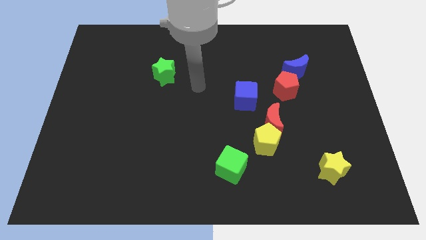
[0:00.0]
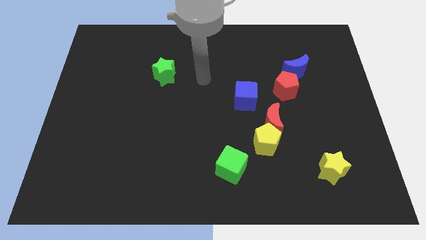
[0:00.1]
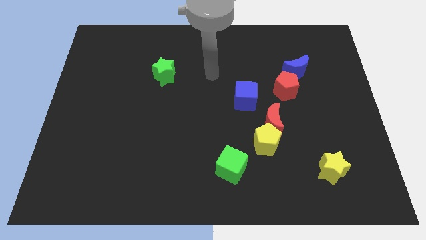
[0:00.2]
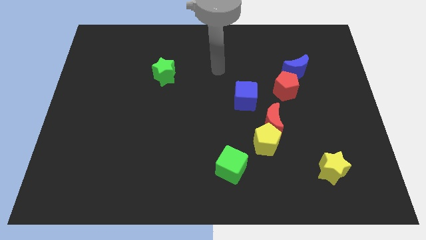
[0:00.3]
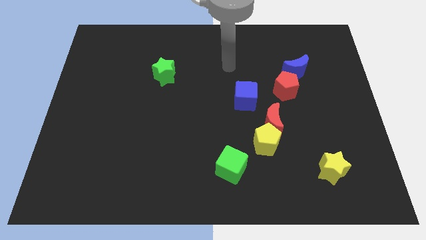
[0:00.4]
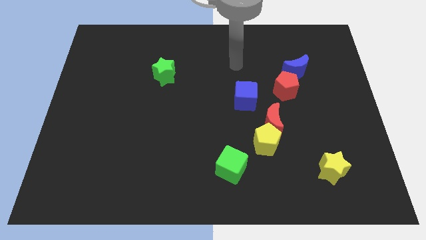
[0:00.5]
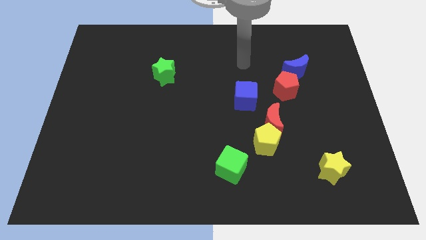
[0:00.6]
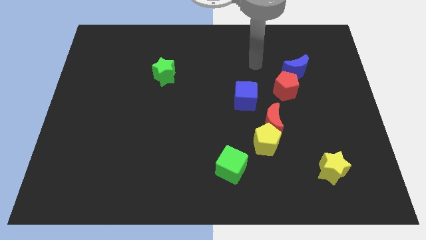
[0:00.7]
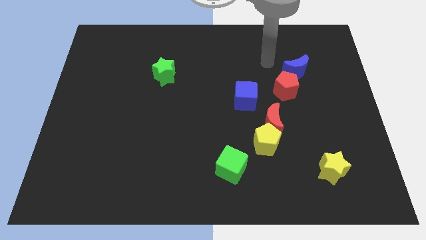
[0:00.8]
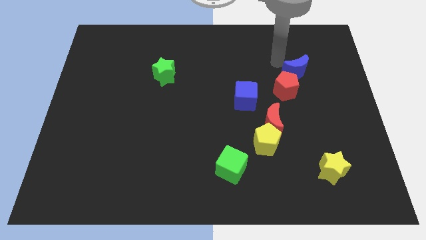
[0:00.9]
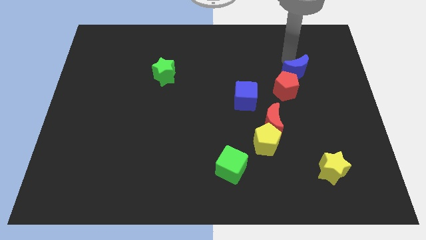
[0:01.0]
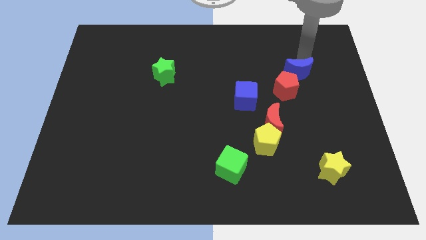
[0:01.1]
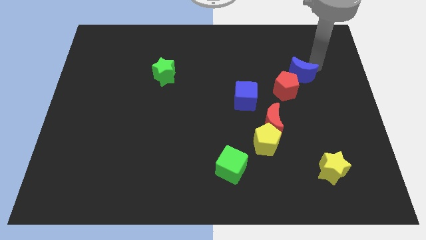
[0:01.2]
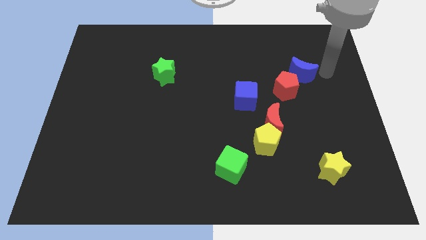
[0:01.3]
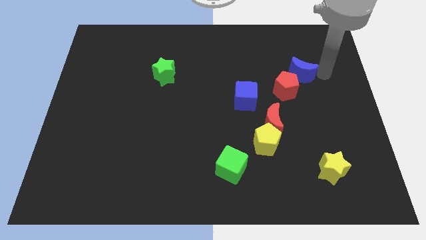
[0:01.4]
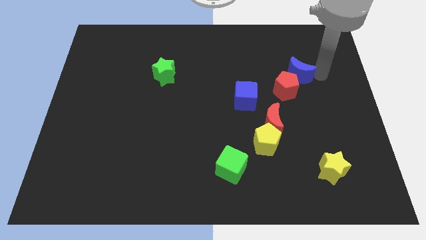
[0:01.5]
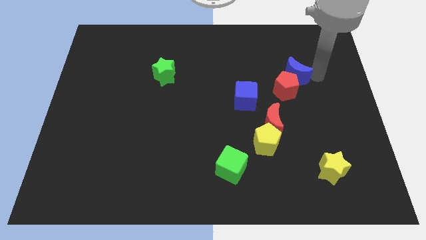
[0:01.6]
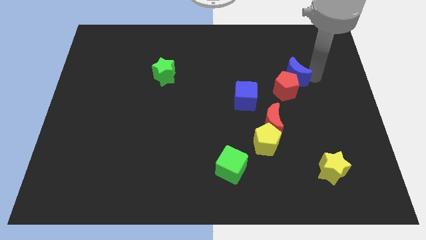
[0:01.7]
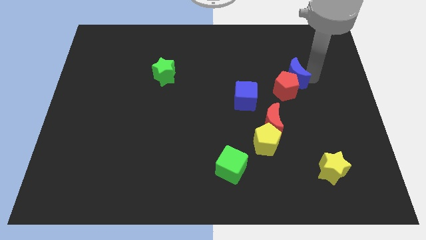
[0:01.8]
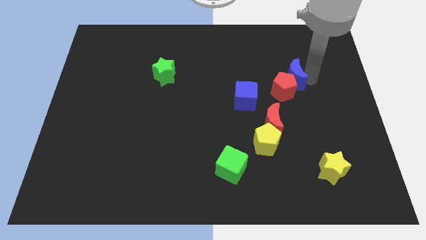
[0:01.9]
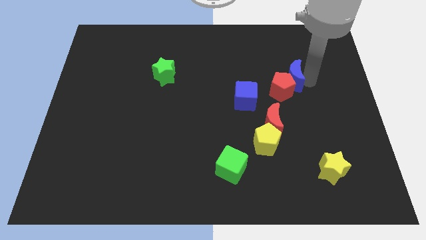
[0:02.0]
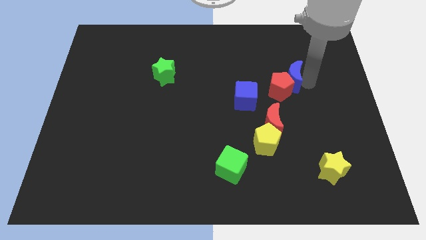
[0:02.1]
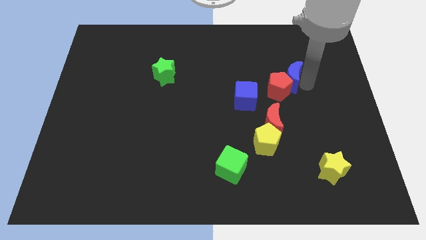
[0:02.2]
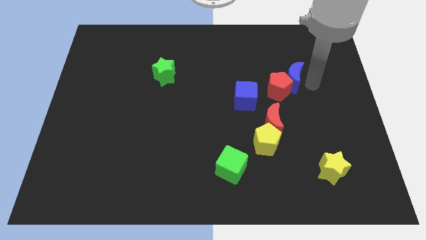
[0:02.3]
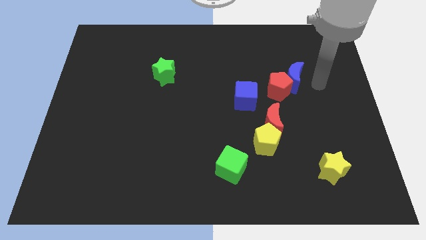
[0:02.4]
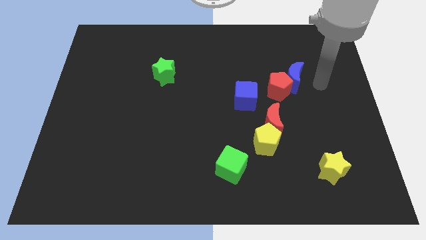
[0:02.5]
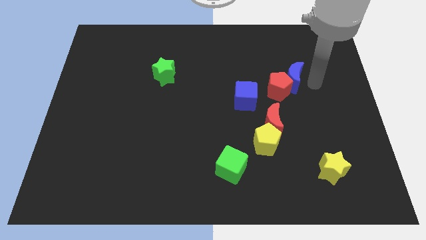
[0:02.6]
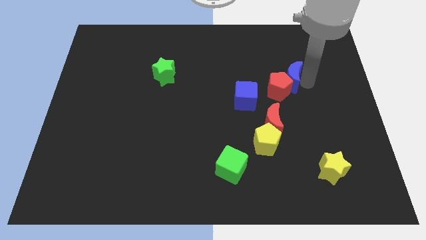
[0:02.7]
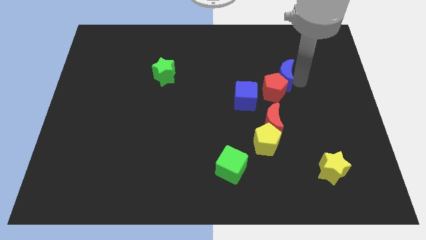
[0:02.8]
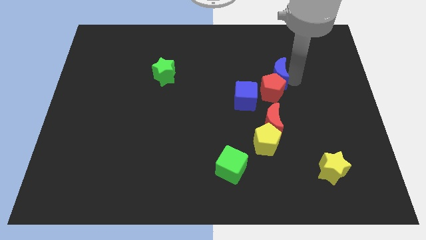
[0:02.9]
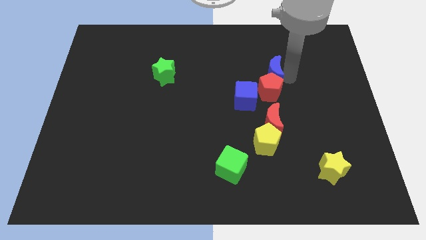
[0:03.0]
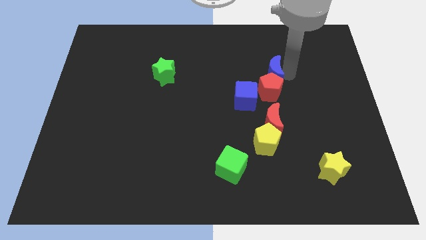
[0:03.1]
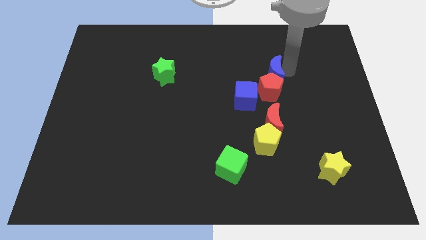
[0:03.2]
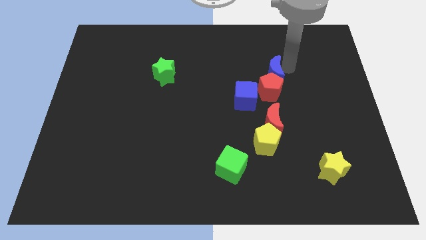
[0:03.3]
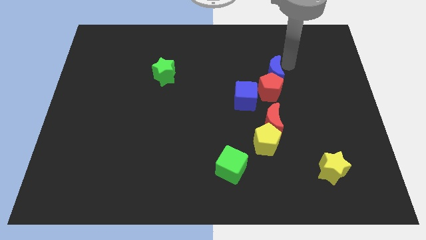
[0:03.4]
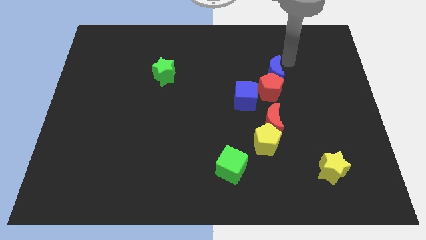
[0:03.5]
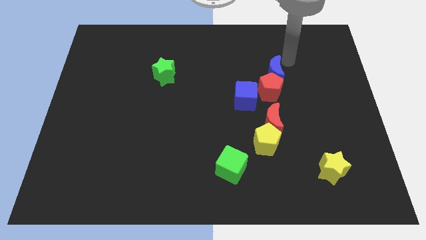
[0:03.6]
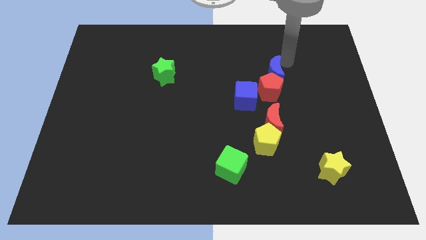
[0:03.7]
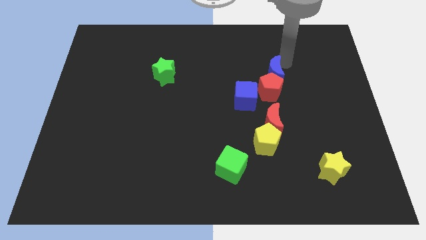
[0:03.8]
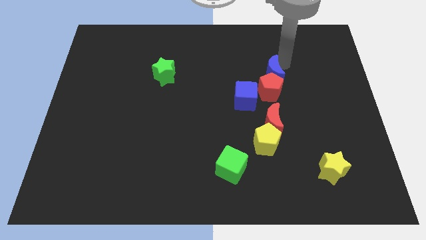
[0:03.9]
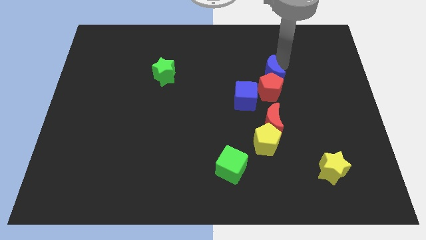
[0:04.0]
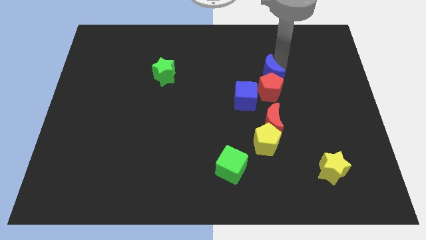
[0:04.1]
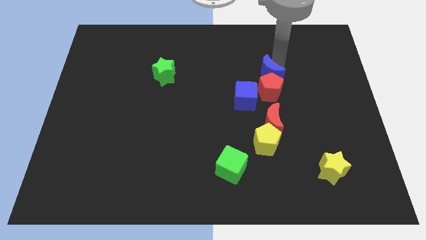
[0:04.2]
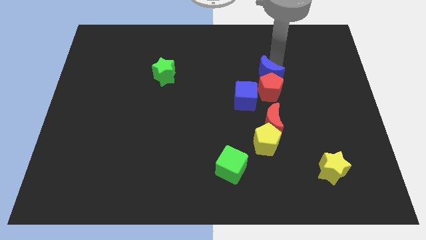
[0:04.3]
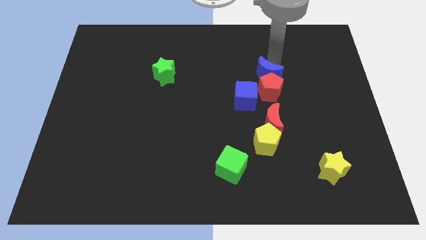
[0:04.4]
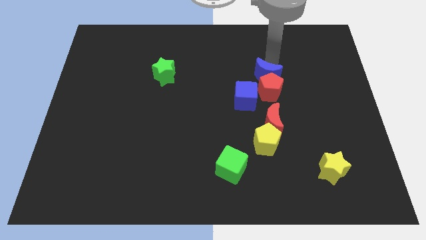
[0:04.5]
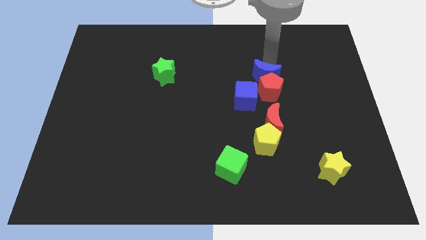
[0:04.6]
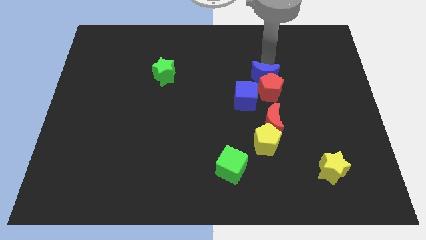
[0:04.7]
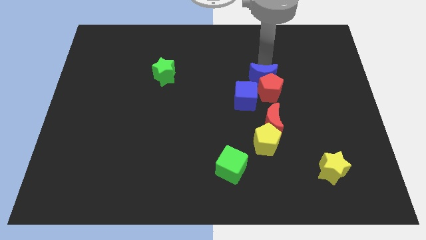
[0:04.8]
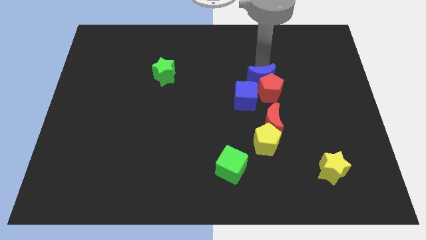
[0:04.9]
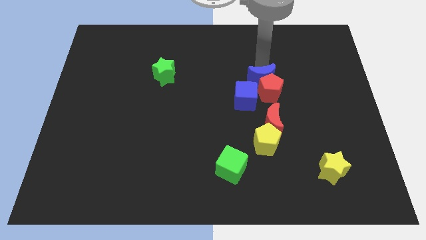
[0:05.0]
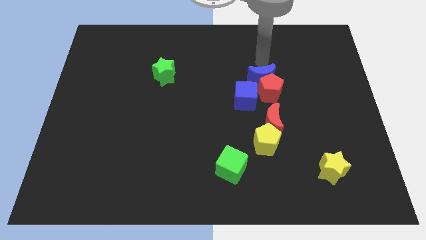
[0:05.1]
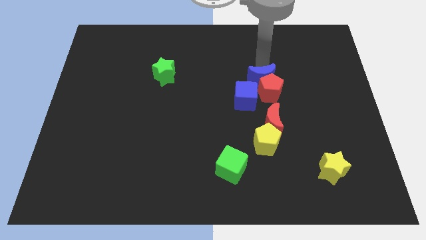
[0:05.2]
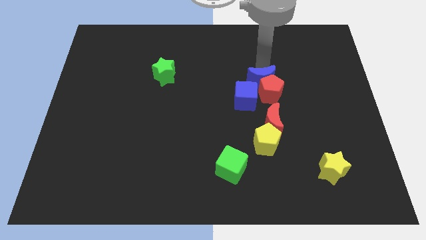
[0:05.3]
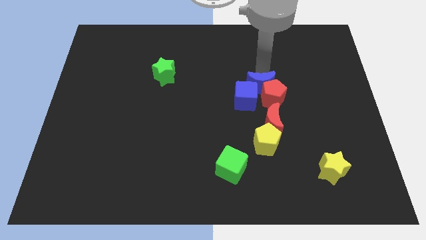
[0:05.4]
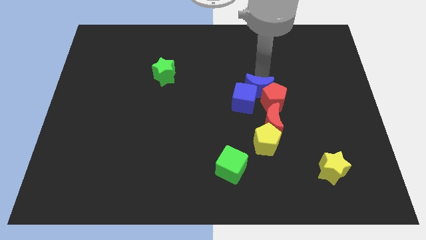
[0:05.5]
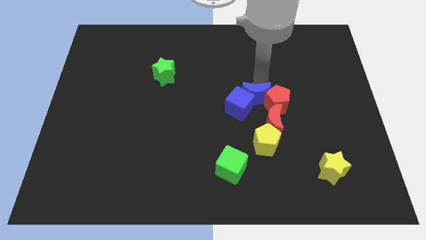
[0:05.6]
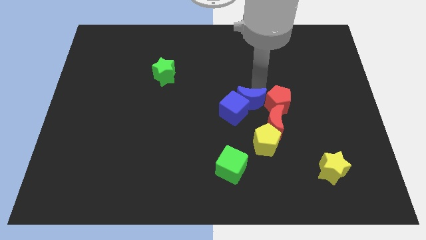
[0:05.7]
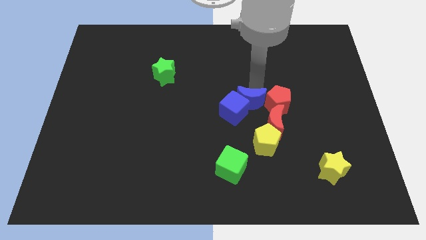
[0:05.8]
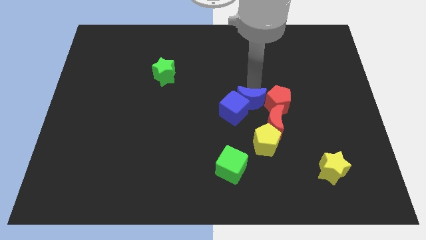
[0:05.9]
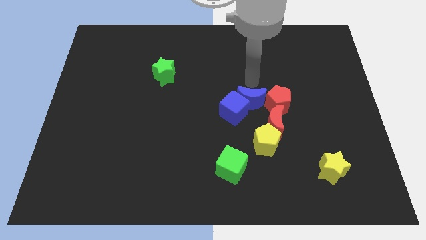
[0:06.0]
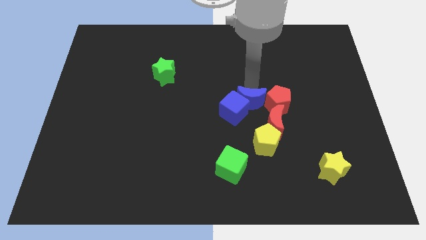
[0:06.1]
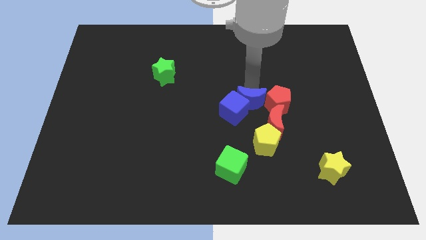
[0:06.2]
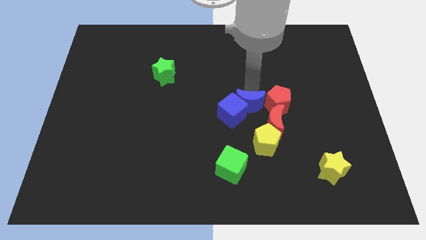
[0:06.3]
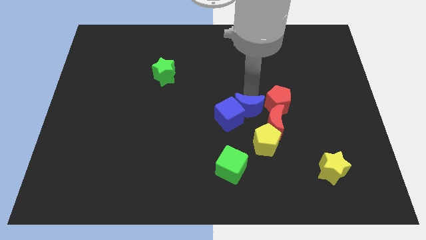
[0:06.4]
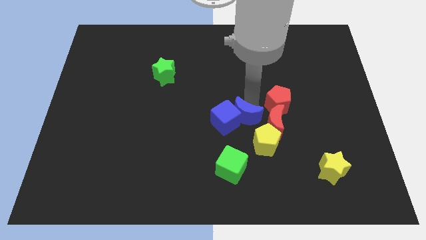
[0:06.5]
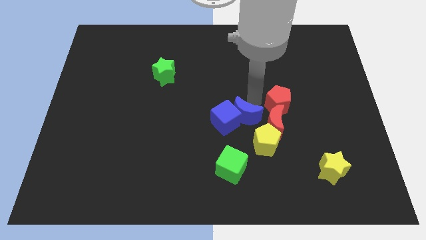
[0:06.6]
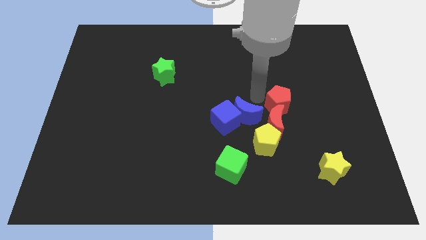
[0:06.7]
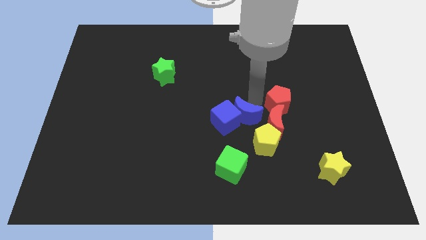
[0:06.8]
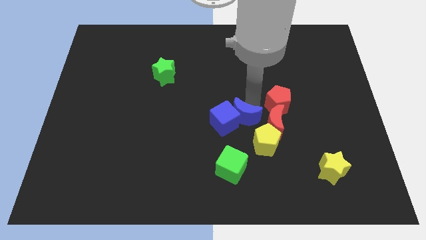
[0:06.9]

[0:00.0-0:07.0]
push the blue moon diagonally down and left

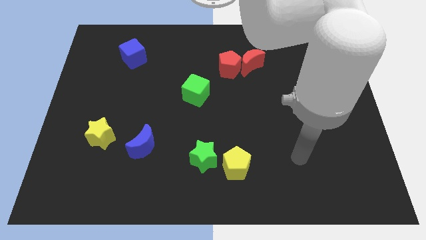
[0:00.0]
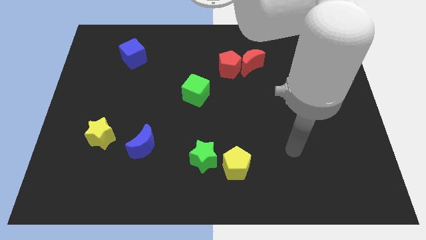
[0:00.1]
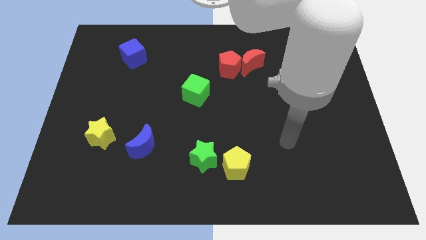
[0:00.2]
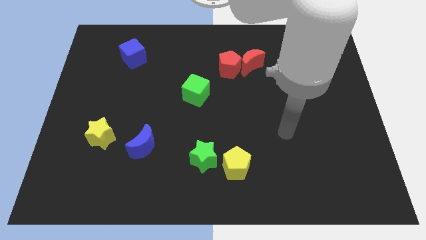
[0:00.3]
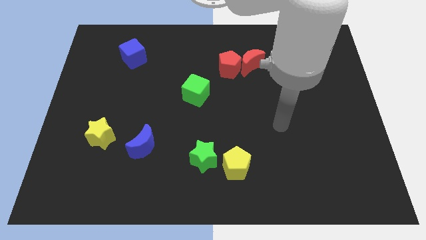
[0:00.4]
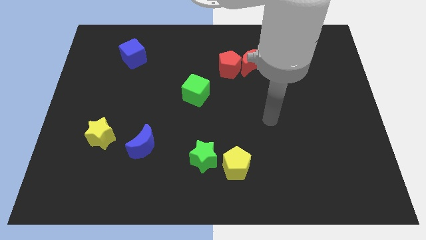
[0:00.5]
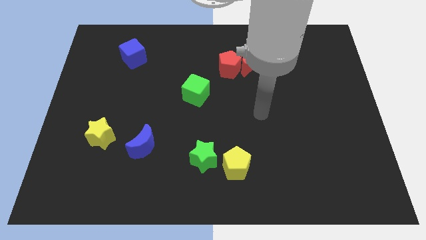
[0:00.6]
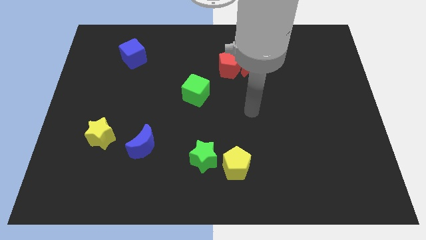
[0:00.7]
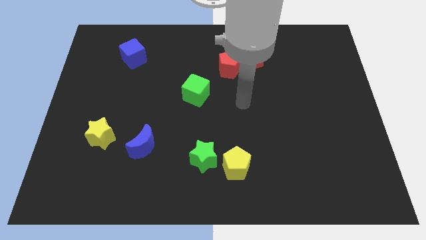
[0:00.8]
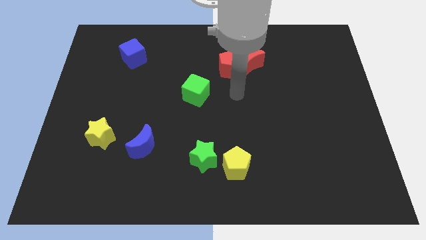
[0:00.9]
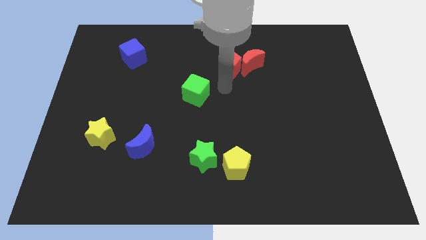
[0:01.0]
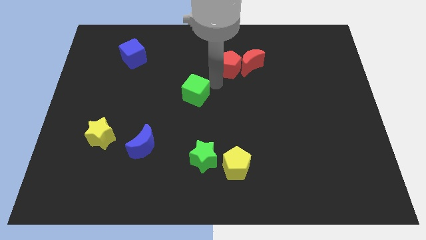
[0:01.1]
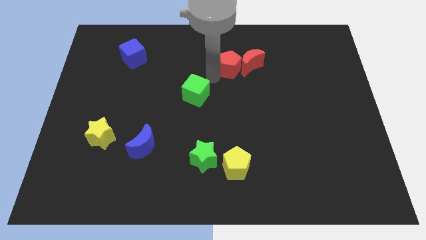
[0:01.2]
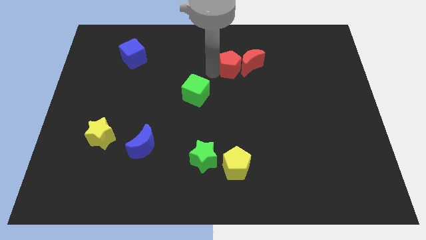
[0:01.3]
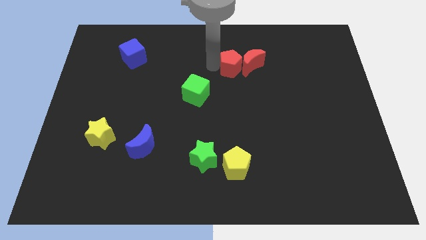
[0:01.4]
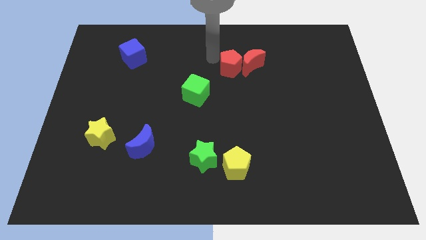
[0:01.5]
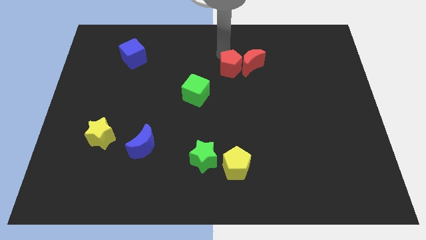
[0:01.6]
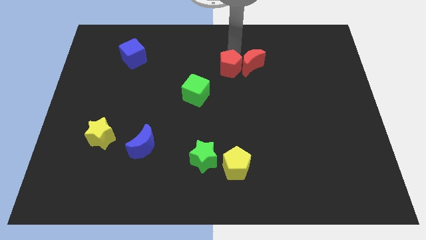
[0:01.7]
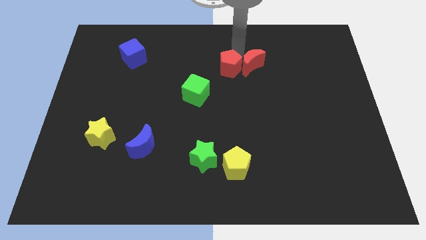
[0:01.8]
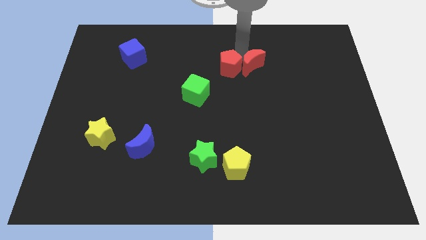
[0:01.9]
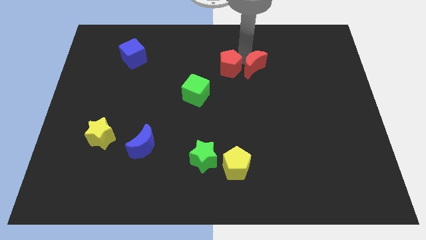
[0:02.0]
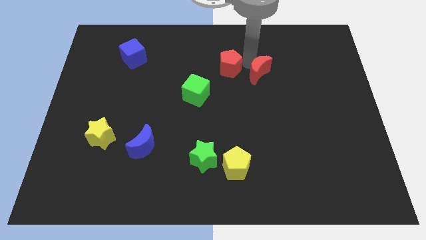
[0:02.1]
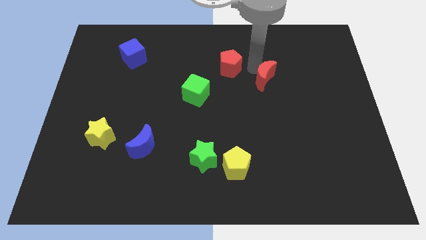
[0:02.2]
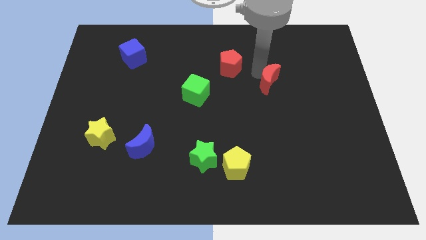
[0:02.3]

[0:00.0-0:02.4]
move the red moon downwards and to the right diagonally a bit
